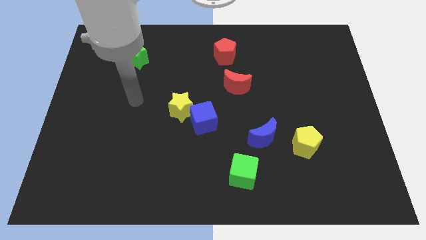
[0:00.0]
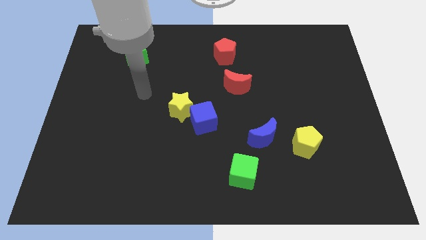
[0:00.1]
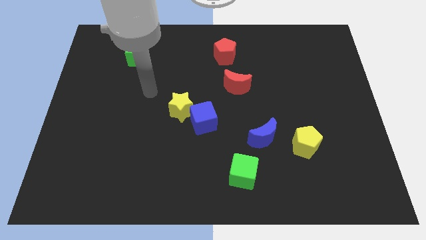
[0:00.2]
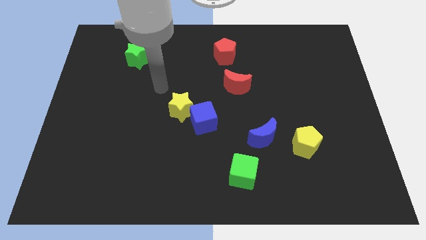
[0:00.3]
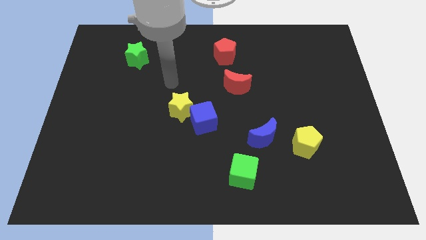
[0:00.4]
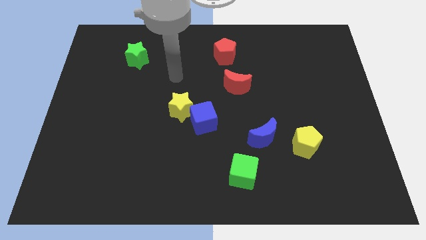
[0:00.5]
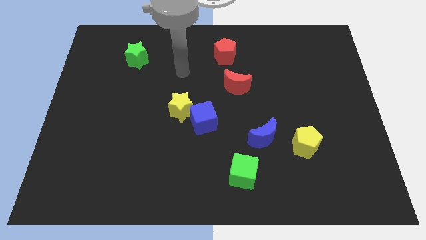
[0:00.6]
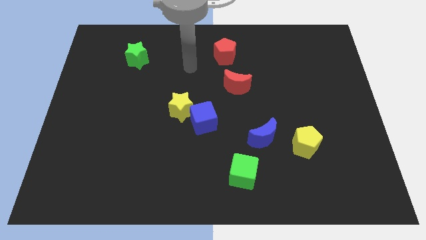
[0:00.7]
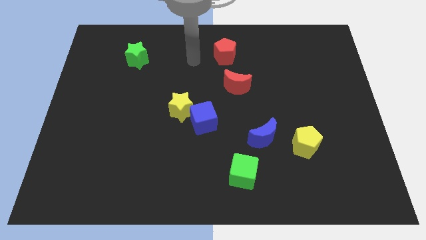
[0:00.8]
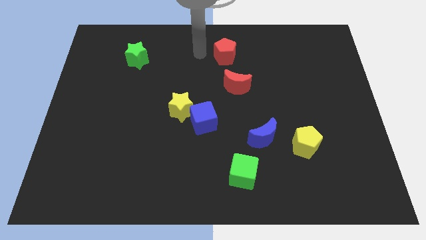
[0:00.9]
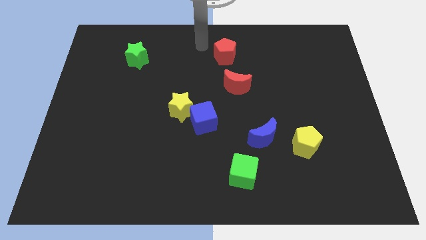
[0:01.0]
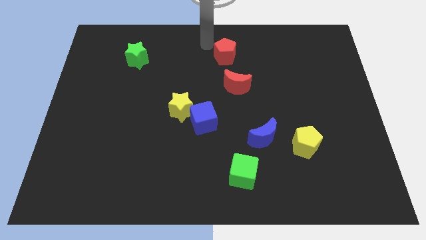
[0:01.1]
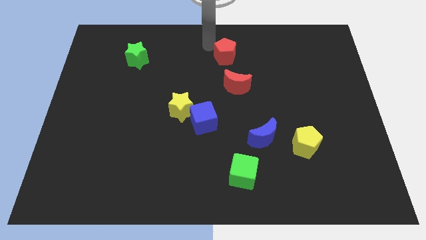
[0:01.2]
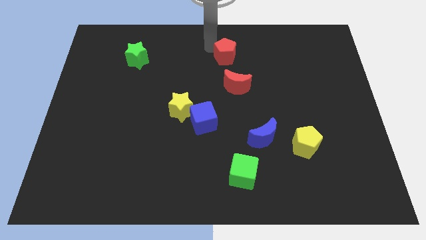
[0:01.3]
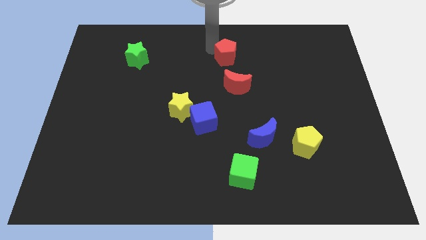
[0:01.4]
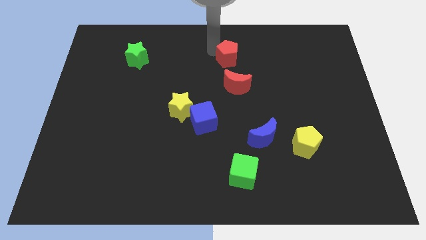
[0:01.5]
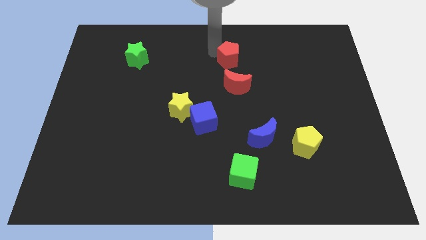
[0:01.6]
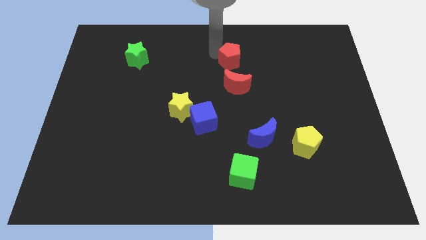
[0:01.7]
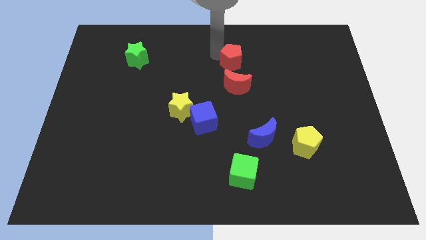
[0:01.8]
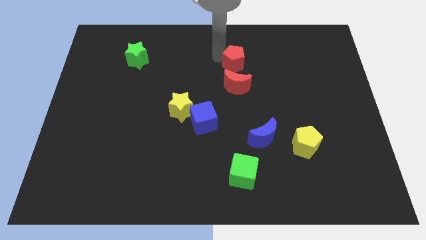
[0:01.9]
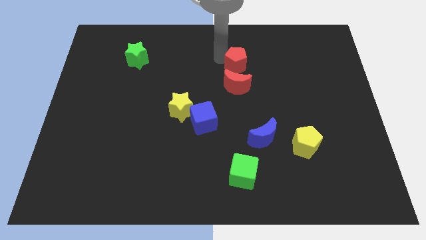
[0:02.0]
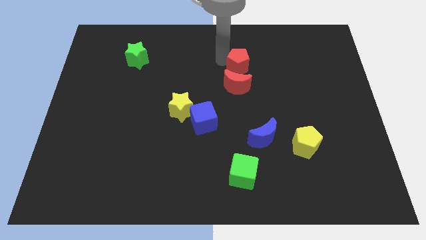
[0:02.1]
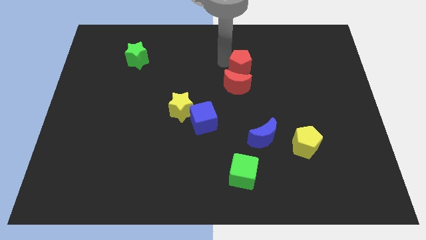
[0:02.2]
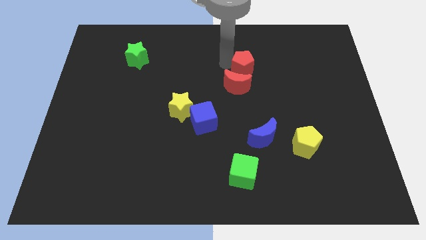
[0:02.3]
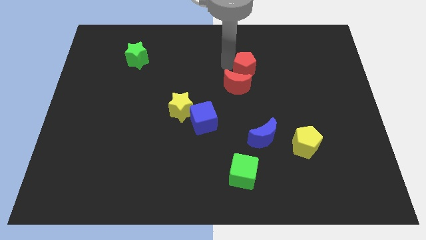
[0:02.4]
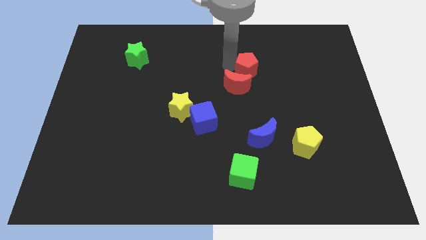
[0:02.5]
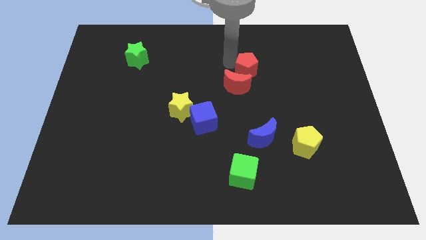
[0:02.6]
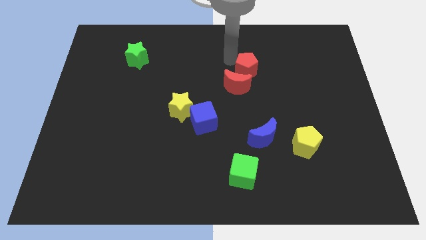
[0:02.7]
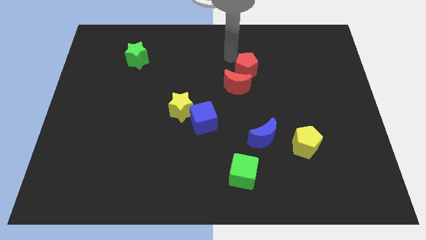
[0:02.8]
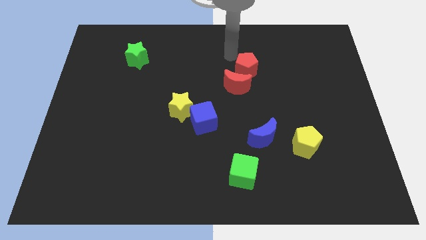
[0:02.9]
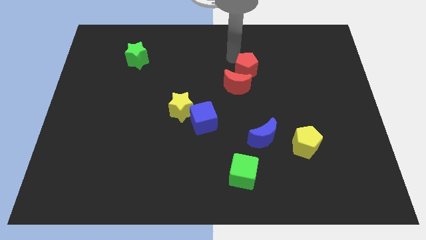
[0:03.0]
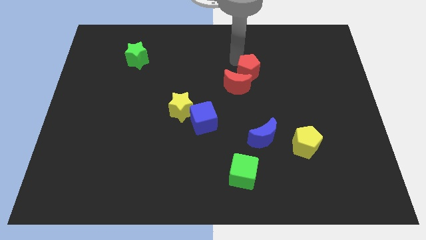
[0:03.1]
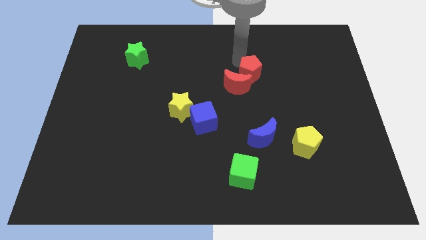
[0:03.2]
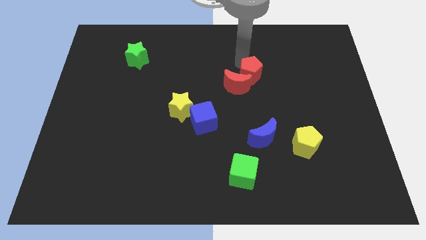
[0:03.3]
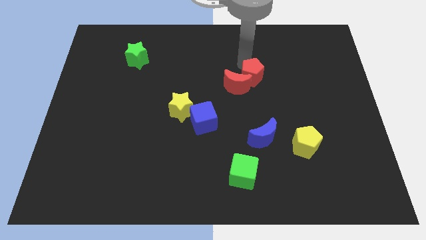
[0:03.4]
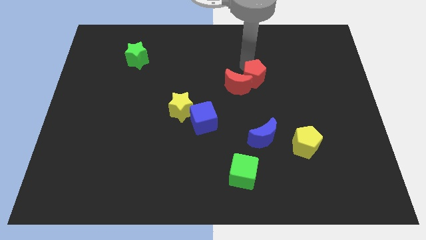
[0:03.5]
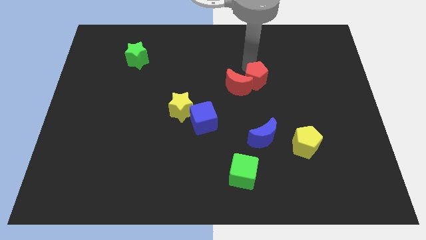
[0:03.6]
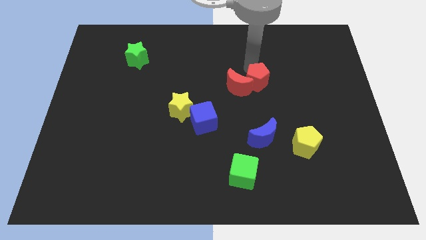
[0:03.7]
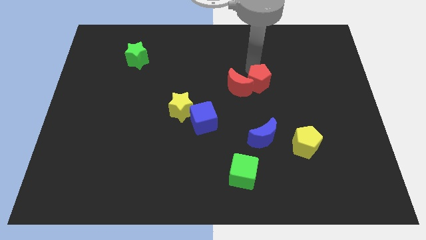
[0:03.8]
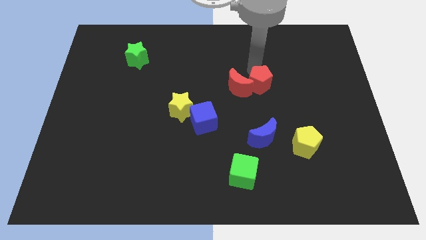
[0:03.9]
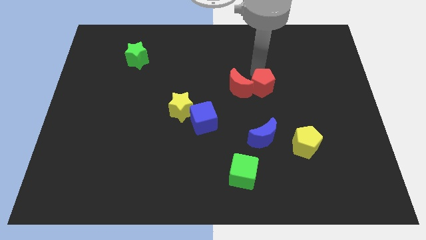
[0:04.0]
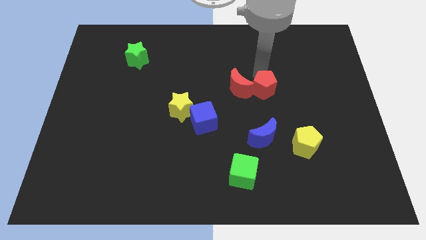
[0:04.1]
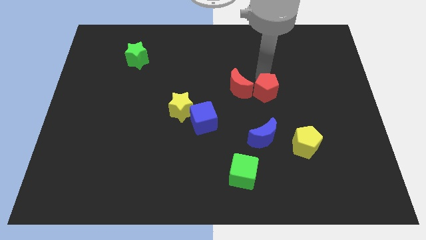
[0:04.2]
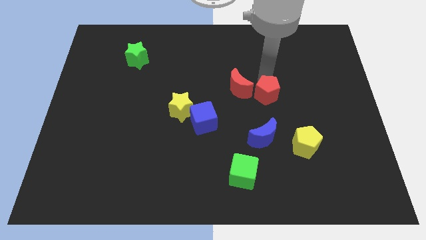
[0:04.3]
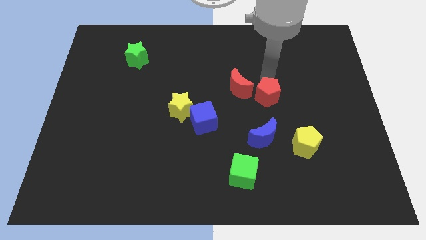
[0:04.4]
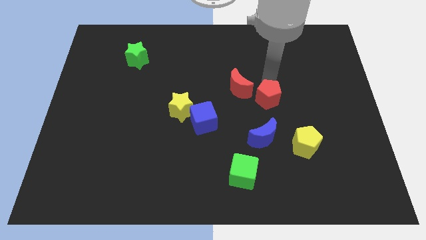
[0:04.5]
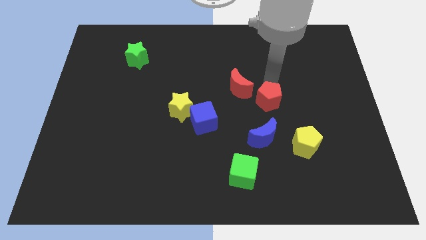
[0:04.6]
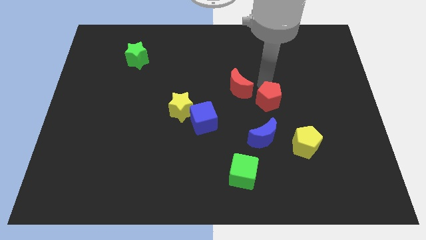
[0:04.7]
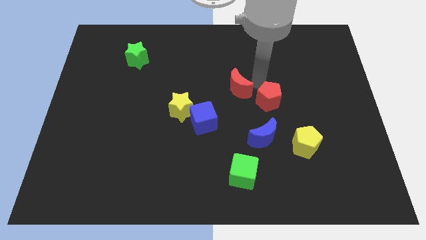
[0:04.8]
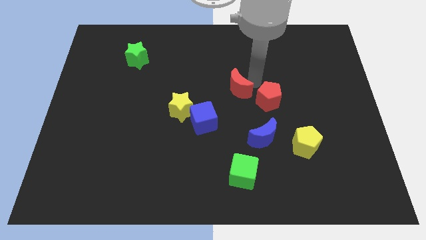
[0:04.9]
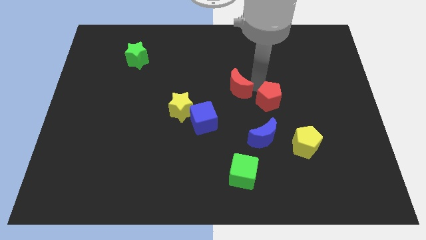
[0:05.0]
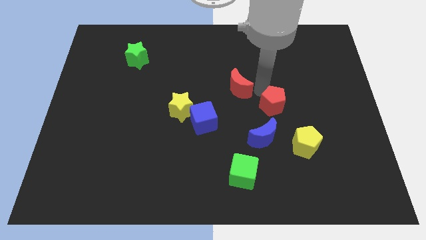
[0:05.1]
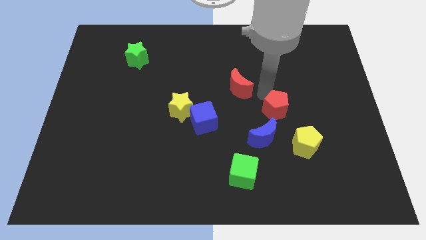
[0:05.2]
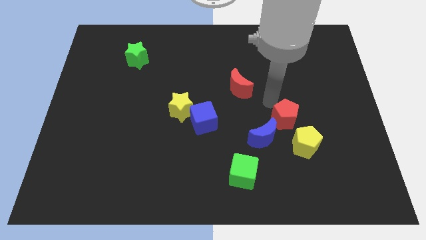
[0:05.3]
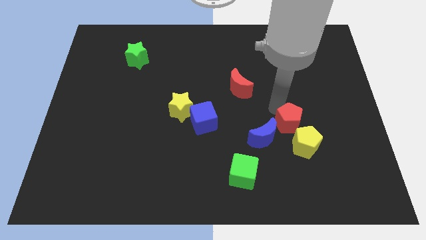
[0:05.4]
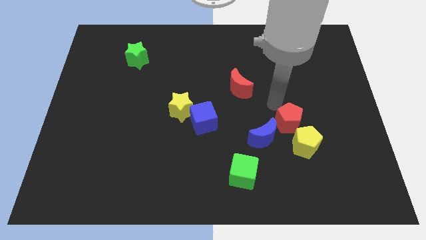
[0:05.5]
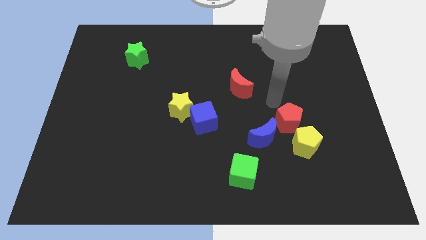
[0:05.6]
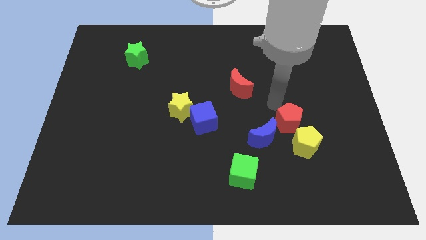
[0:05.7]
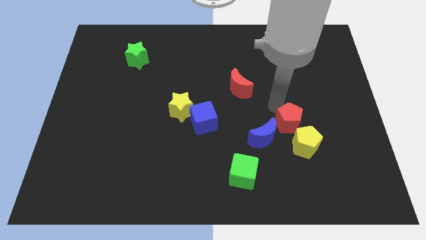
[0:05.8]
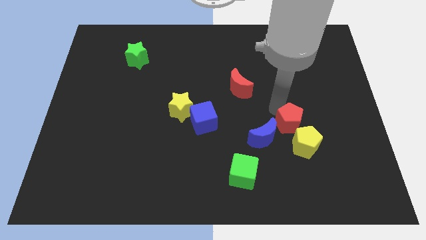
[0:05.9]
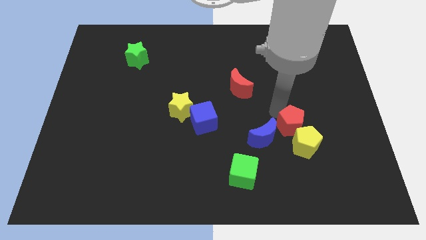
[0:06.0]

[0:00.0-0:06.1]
move the red pentagon to the yellow pentagon

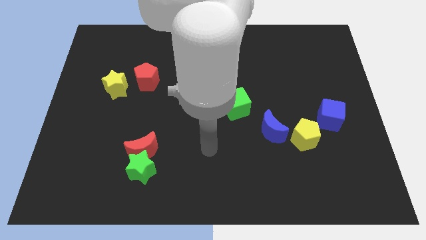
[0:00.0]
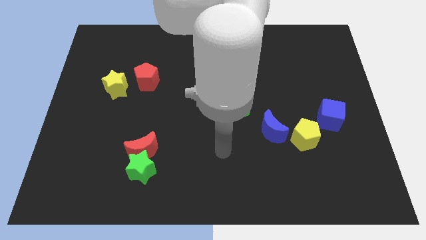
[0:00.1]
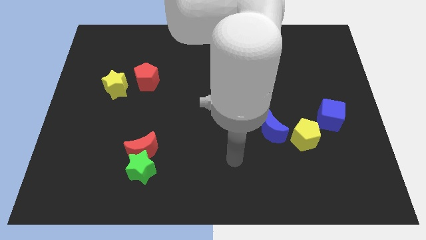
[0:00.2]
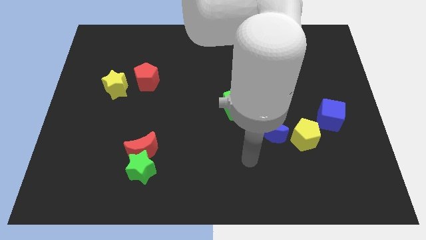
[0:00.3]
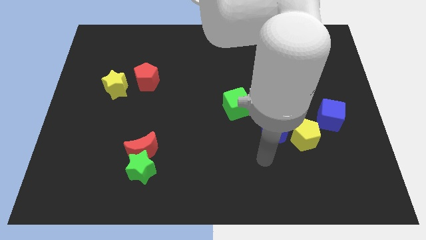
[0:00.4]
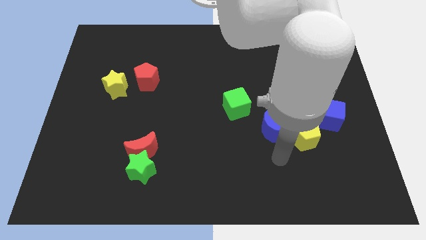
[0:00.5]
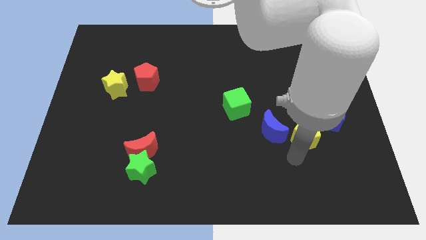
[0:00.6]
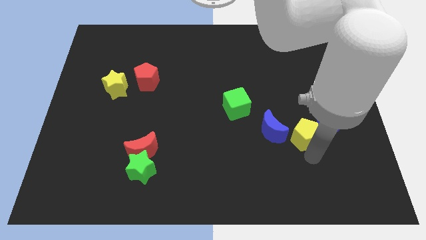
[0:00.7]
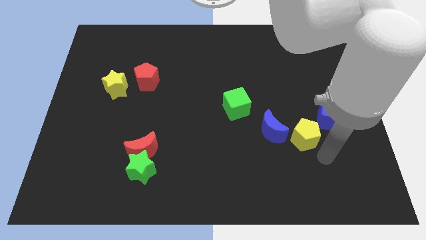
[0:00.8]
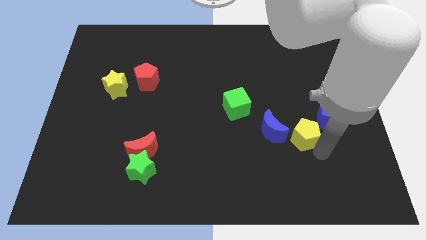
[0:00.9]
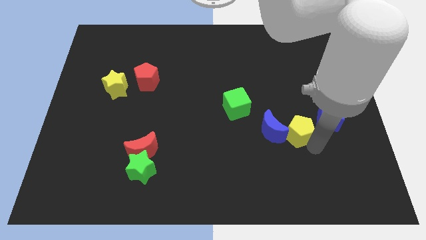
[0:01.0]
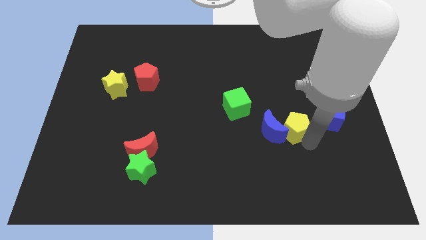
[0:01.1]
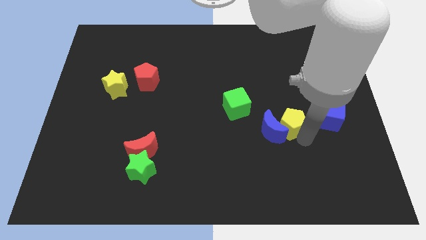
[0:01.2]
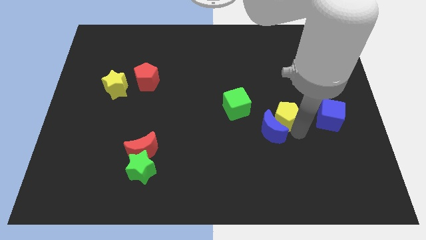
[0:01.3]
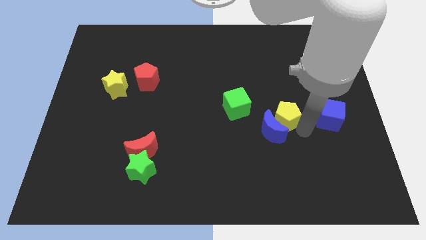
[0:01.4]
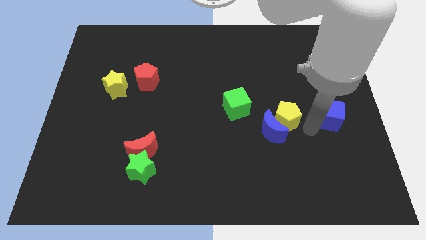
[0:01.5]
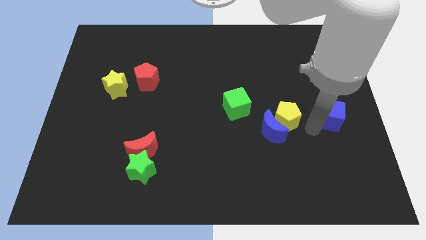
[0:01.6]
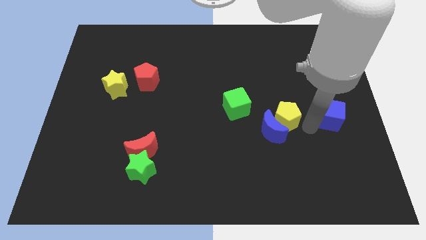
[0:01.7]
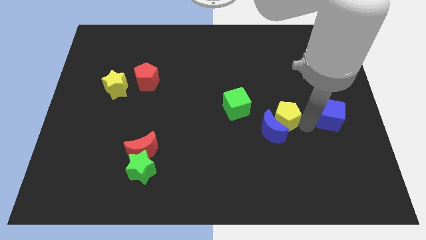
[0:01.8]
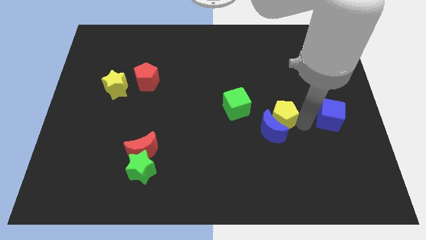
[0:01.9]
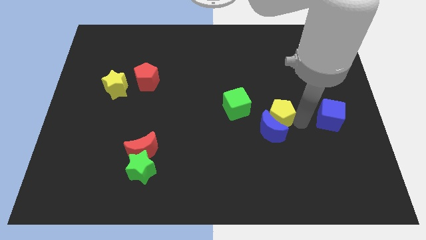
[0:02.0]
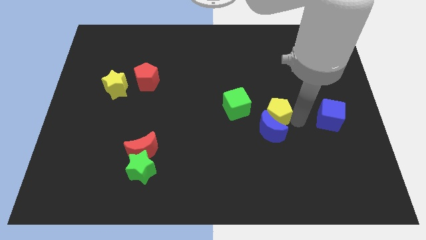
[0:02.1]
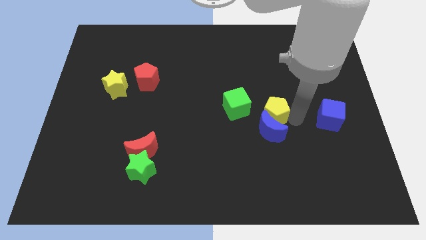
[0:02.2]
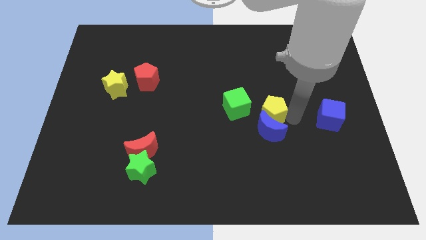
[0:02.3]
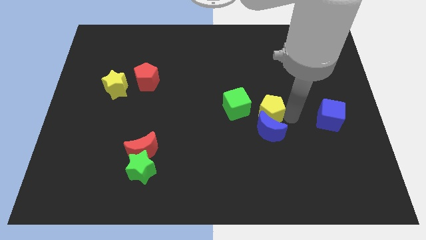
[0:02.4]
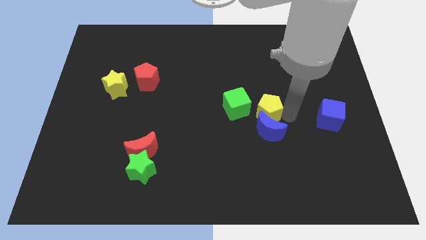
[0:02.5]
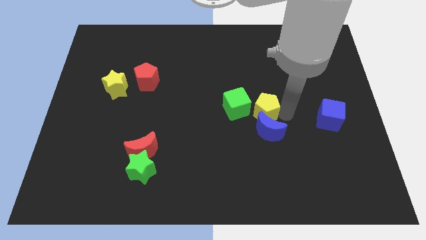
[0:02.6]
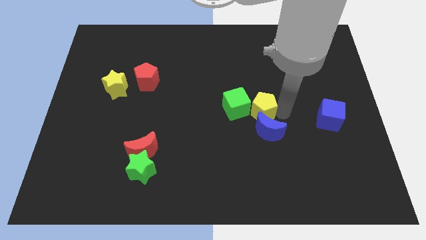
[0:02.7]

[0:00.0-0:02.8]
slide the yellow pentagon towards the green cube
